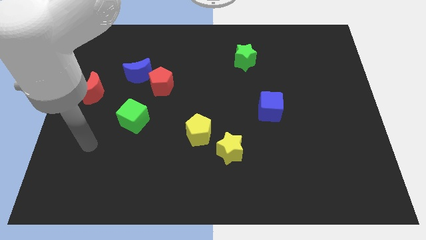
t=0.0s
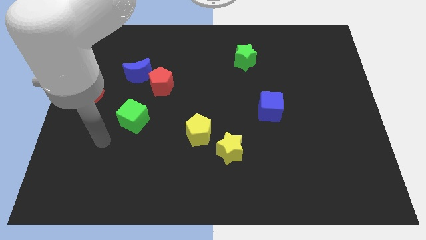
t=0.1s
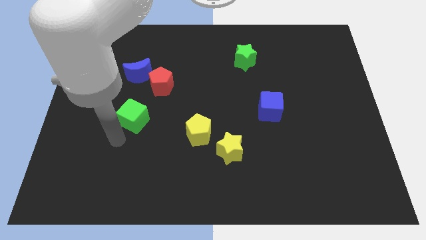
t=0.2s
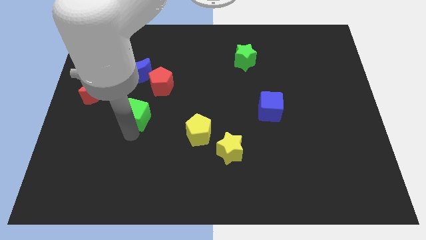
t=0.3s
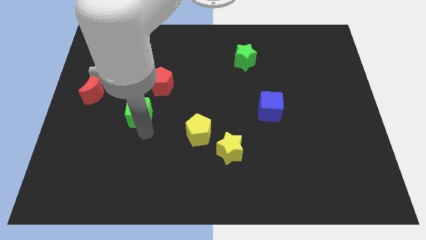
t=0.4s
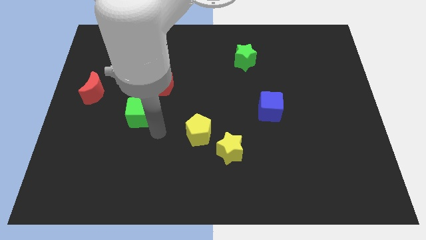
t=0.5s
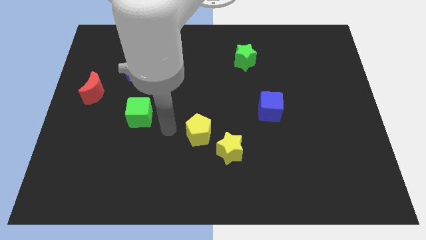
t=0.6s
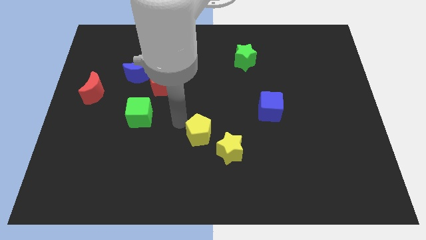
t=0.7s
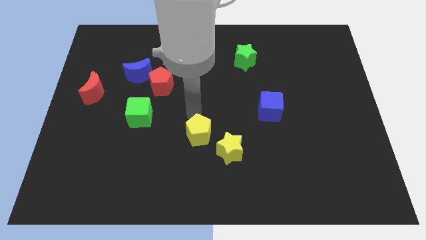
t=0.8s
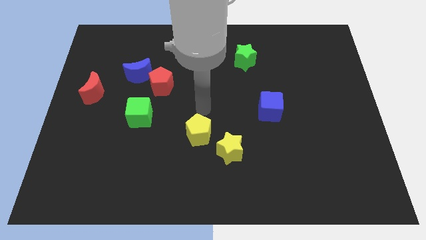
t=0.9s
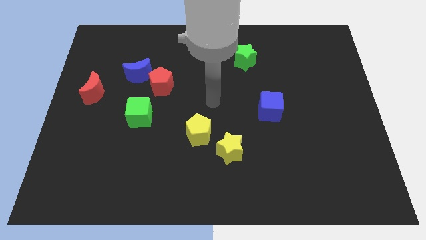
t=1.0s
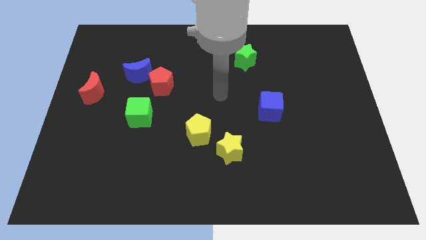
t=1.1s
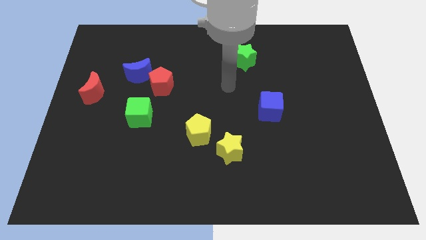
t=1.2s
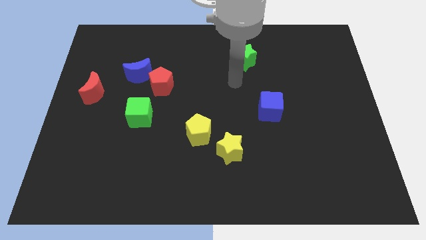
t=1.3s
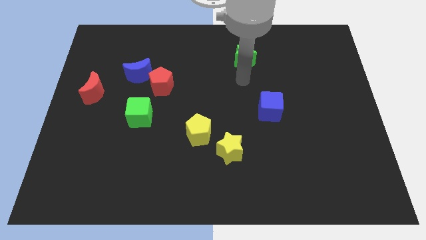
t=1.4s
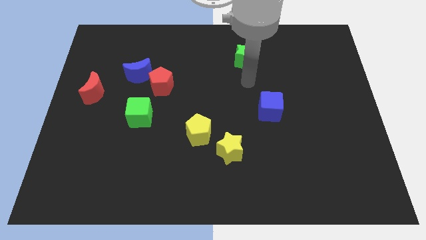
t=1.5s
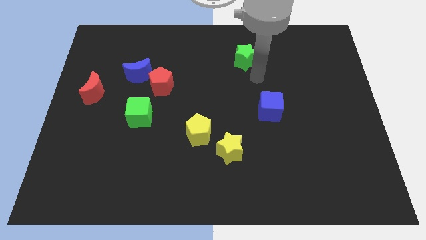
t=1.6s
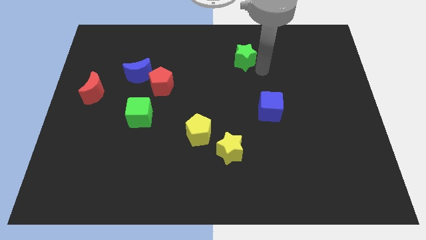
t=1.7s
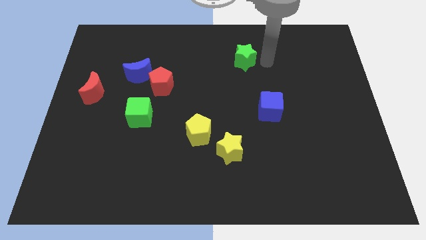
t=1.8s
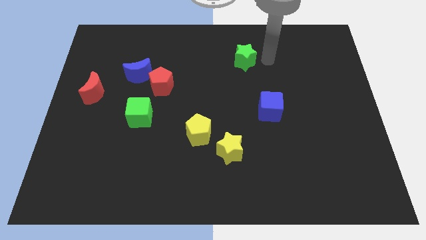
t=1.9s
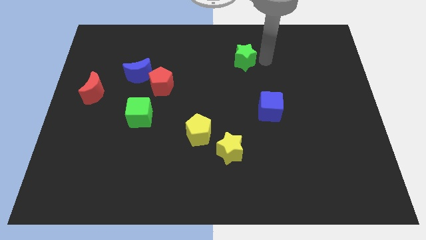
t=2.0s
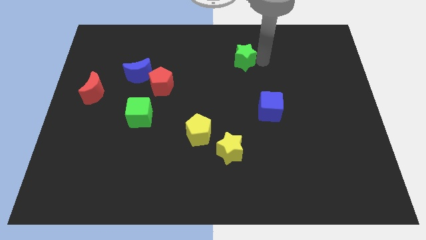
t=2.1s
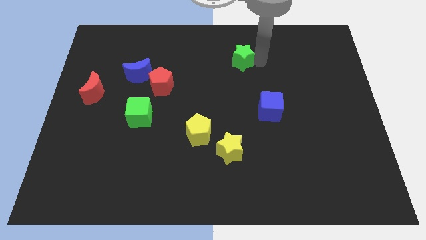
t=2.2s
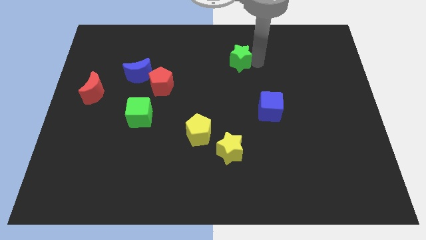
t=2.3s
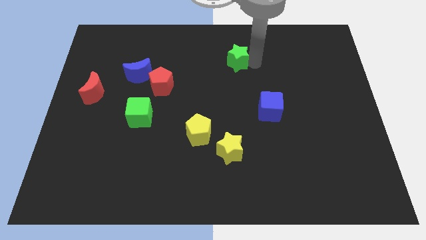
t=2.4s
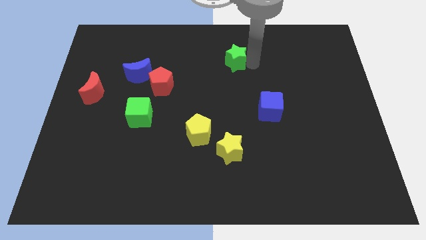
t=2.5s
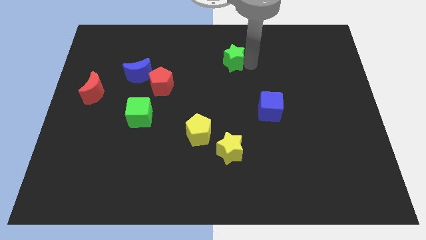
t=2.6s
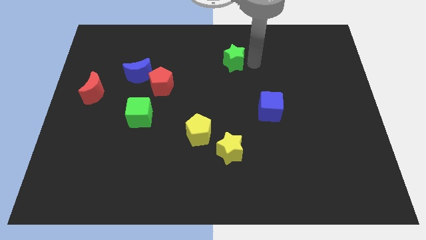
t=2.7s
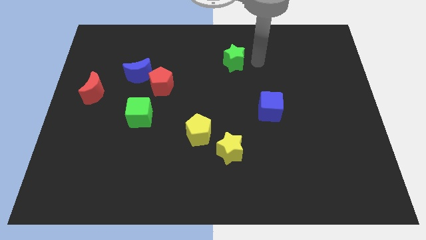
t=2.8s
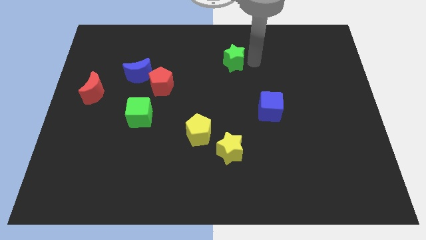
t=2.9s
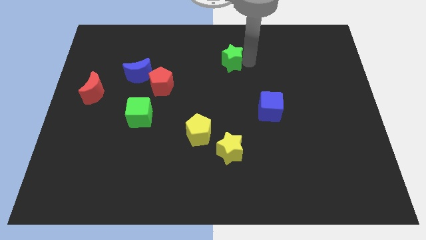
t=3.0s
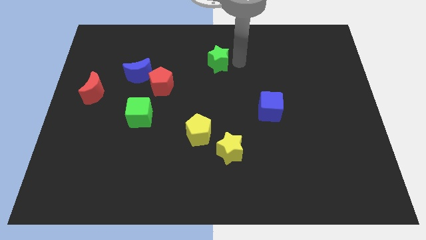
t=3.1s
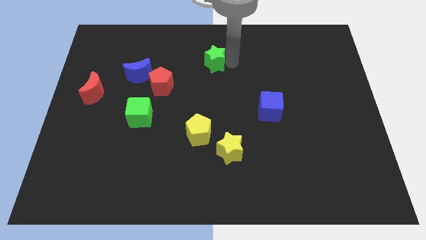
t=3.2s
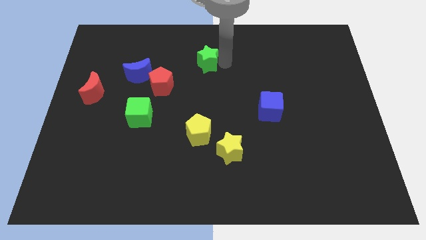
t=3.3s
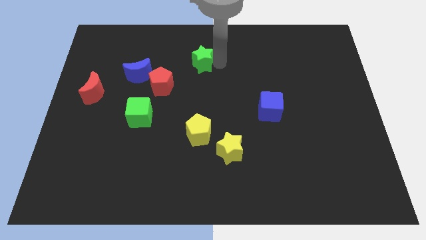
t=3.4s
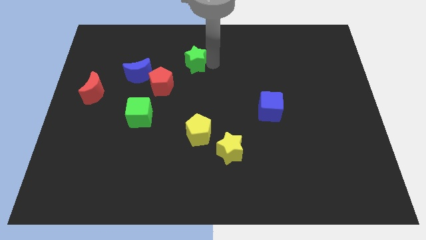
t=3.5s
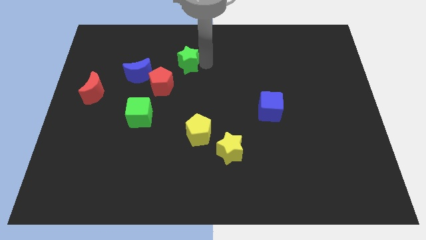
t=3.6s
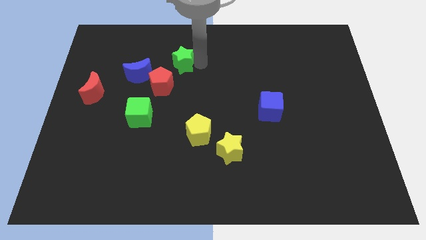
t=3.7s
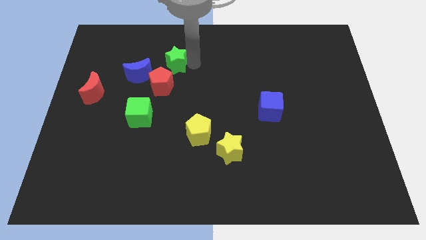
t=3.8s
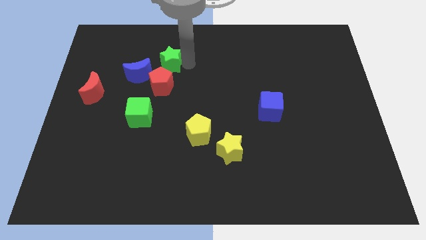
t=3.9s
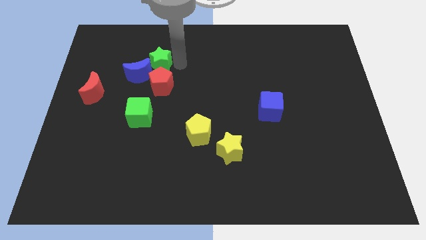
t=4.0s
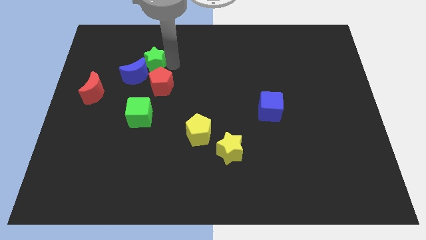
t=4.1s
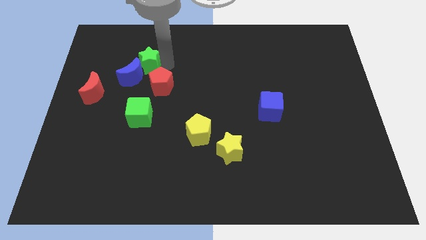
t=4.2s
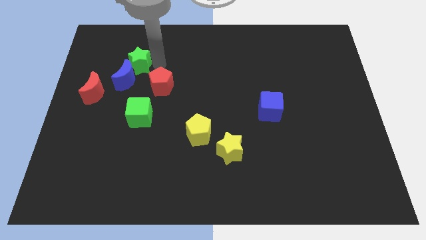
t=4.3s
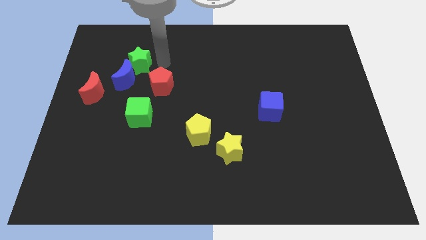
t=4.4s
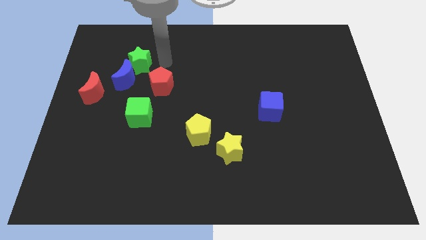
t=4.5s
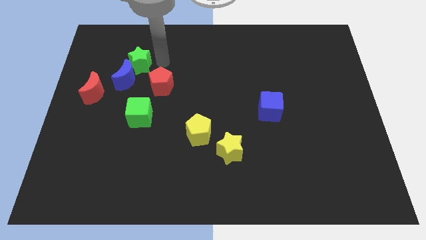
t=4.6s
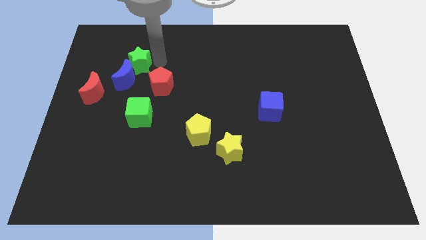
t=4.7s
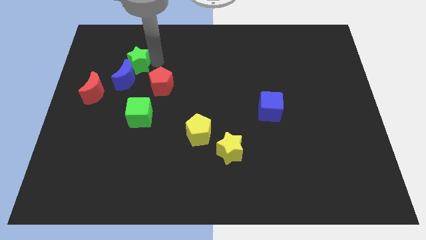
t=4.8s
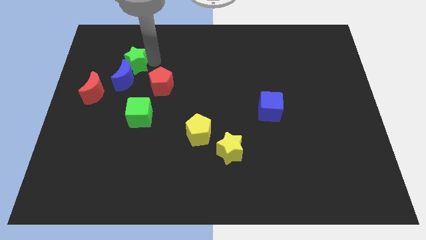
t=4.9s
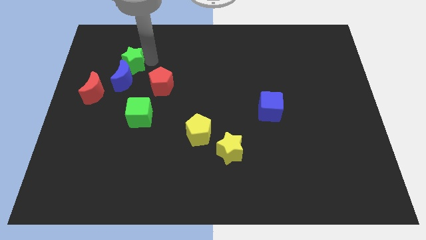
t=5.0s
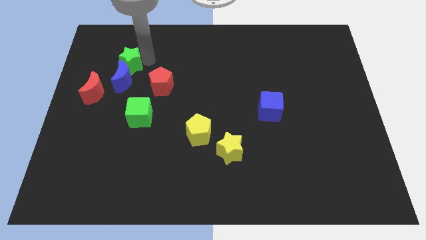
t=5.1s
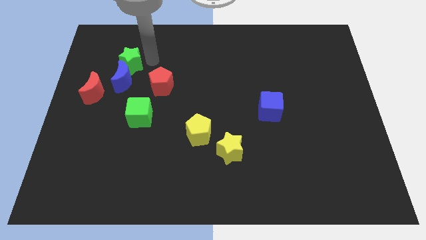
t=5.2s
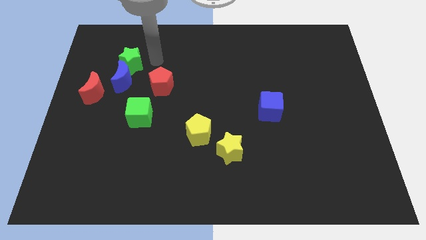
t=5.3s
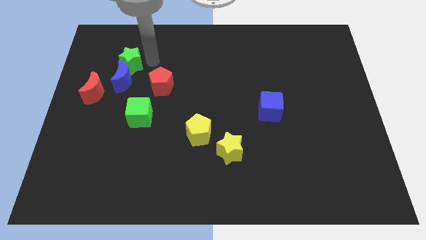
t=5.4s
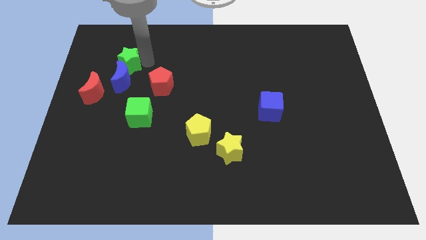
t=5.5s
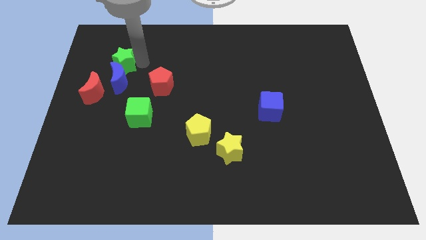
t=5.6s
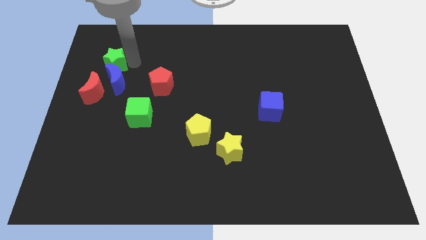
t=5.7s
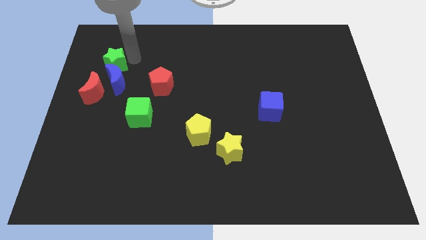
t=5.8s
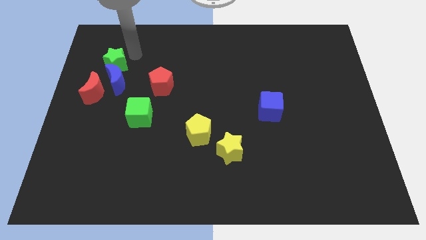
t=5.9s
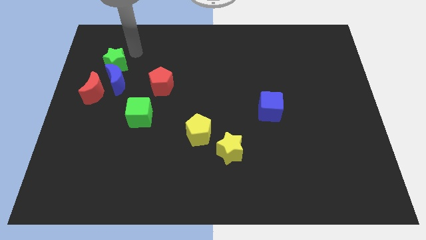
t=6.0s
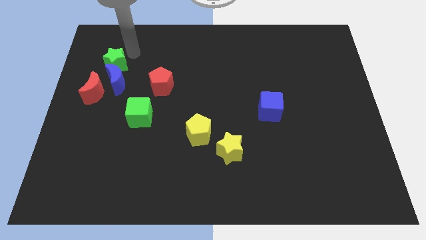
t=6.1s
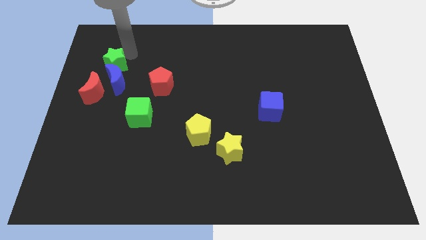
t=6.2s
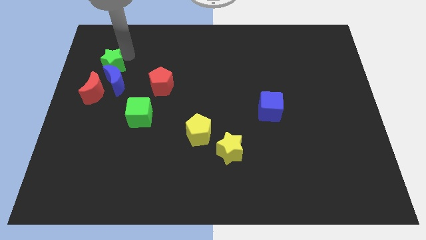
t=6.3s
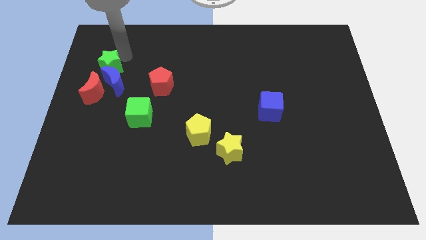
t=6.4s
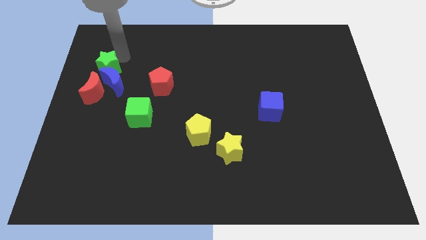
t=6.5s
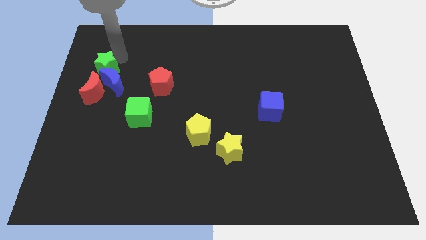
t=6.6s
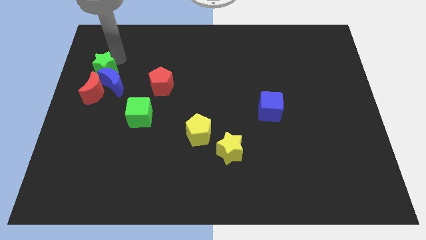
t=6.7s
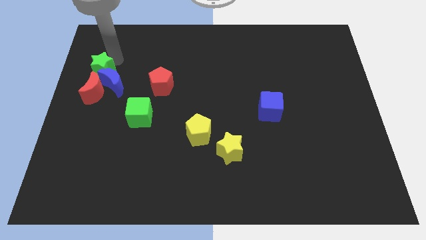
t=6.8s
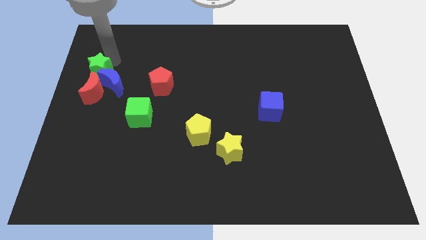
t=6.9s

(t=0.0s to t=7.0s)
push the green star to the left side
